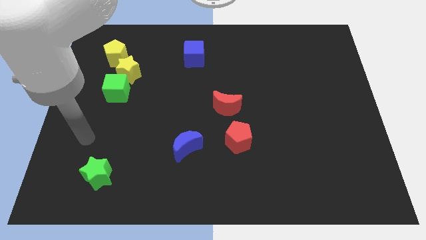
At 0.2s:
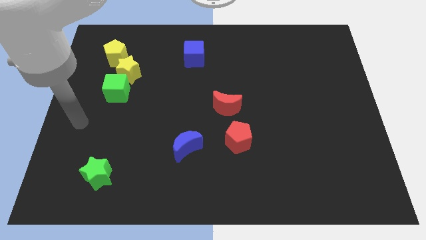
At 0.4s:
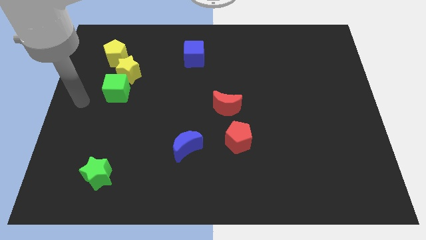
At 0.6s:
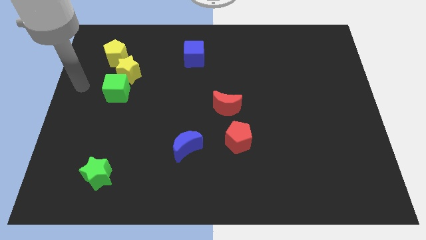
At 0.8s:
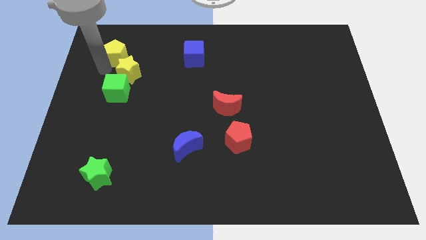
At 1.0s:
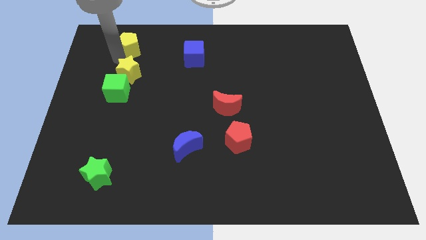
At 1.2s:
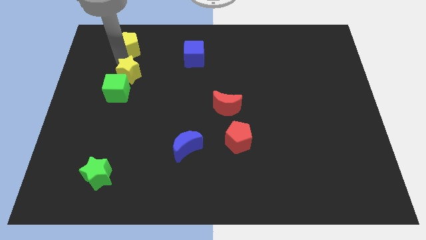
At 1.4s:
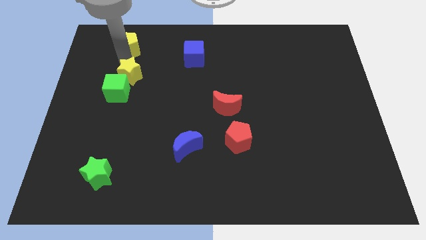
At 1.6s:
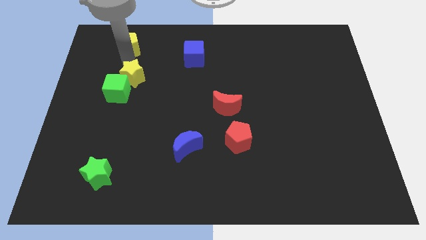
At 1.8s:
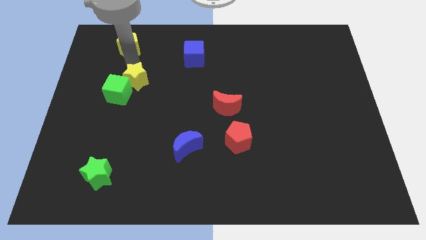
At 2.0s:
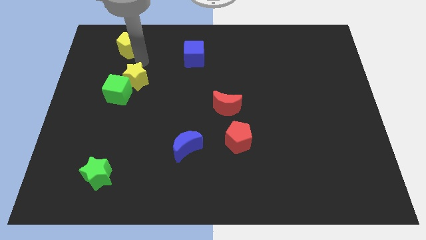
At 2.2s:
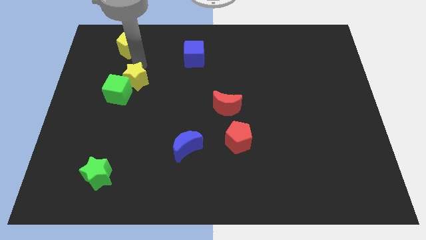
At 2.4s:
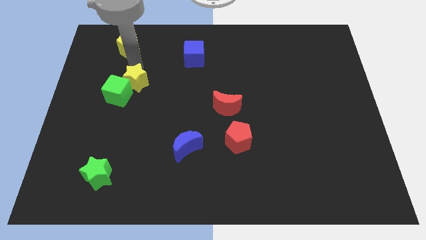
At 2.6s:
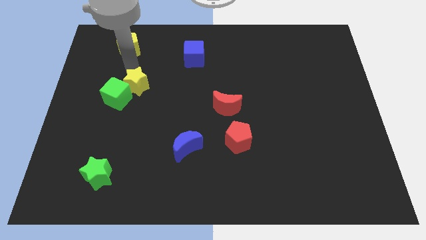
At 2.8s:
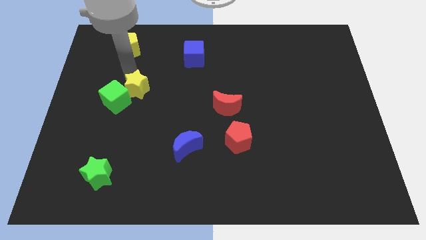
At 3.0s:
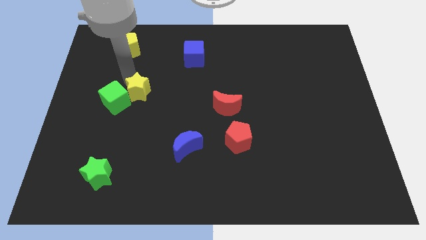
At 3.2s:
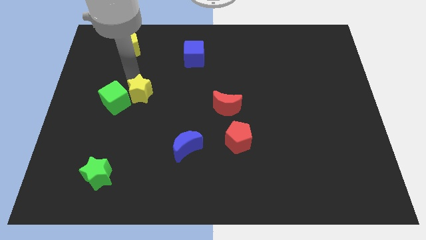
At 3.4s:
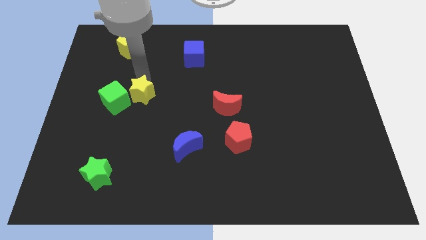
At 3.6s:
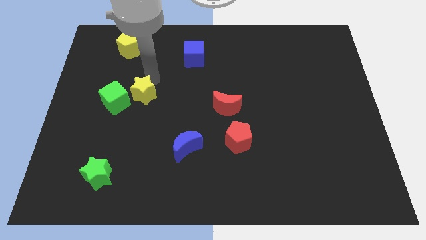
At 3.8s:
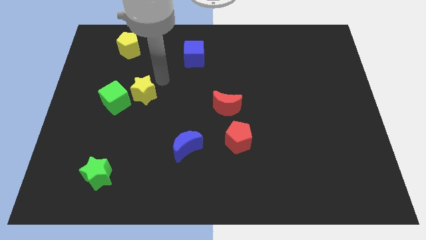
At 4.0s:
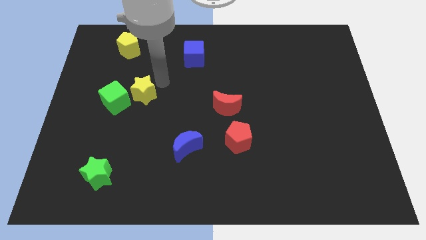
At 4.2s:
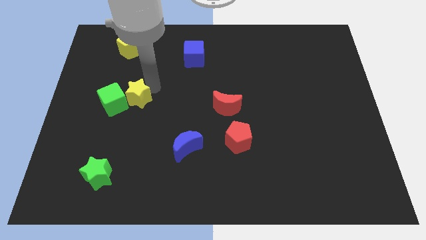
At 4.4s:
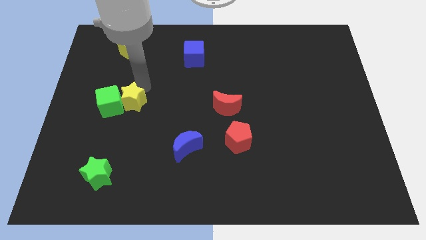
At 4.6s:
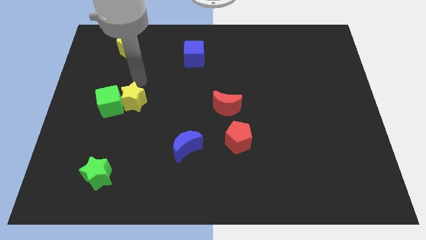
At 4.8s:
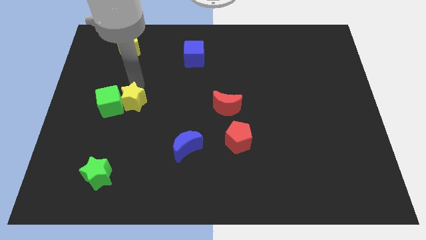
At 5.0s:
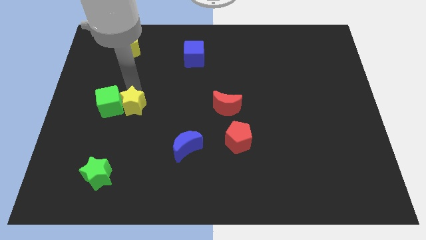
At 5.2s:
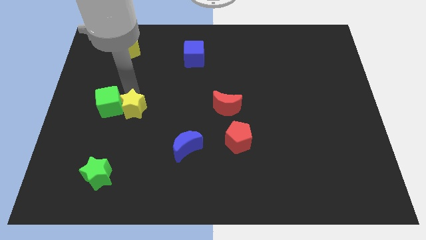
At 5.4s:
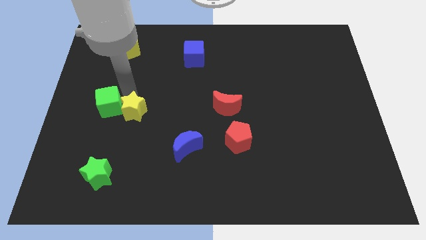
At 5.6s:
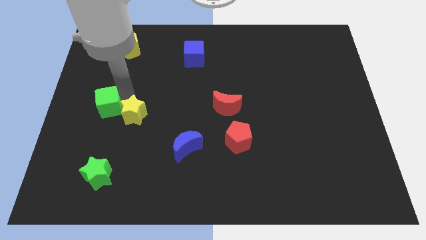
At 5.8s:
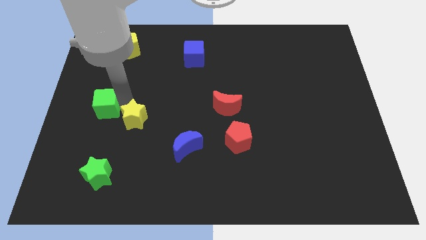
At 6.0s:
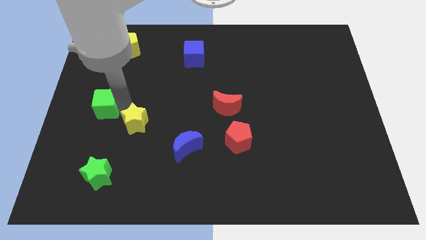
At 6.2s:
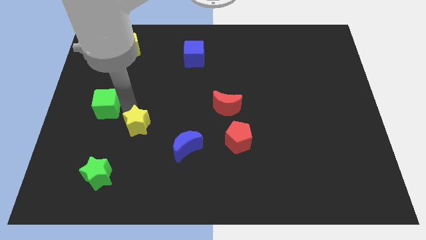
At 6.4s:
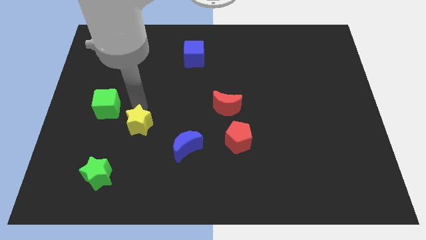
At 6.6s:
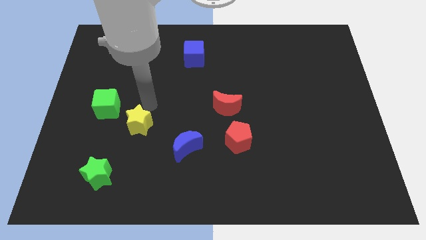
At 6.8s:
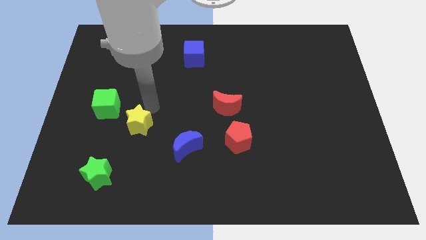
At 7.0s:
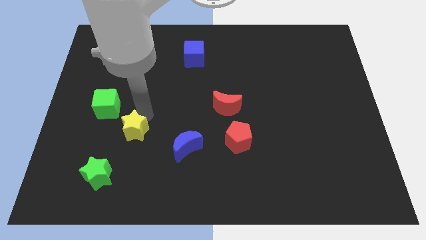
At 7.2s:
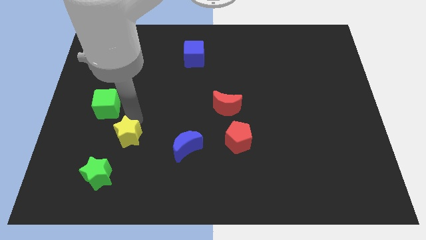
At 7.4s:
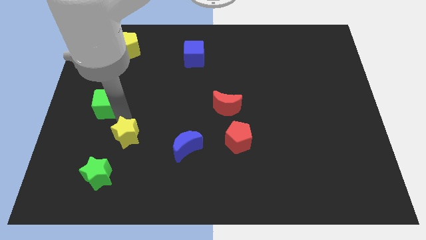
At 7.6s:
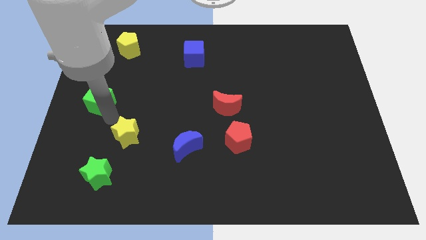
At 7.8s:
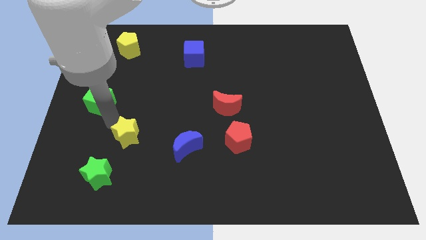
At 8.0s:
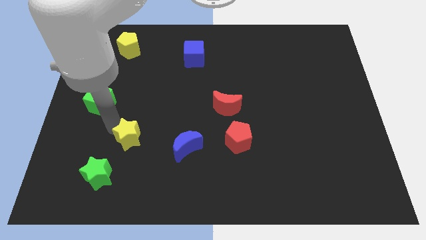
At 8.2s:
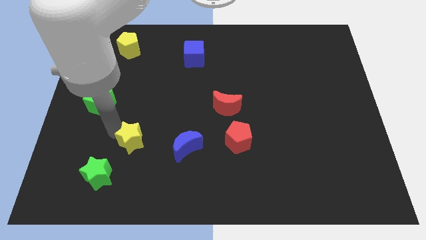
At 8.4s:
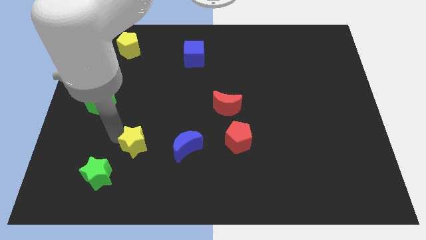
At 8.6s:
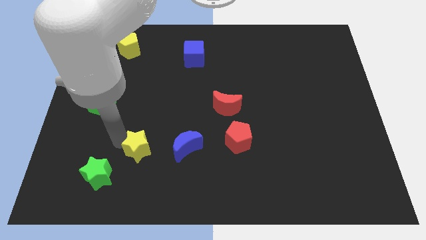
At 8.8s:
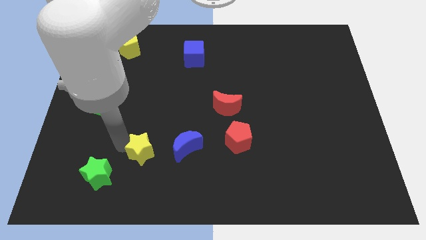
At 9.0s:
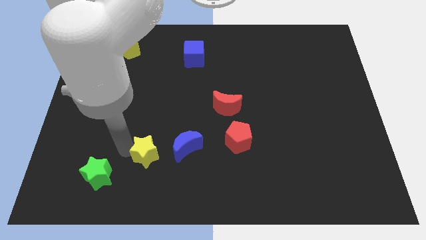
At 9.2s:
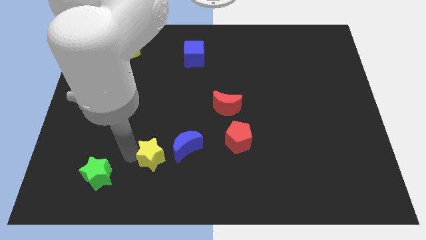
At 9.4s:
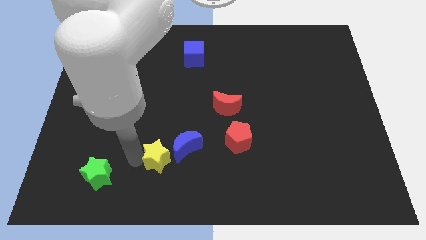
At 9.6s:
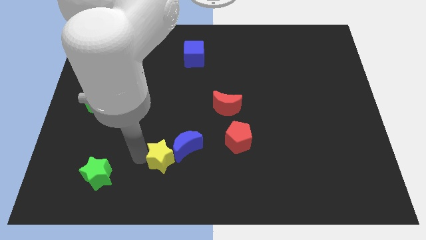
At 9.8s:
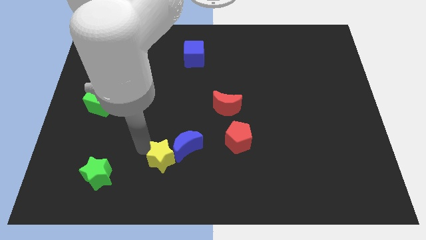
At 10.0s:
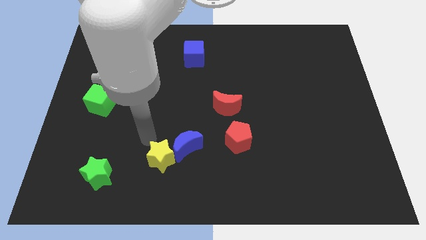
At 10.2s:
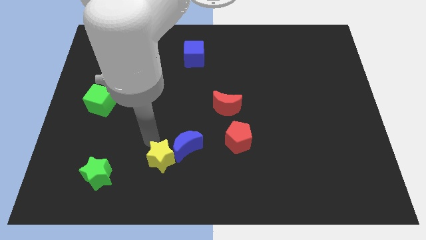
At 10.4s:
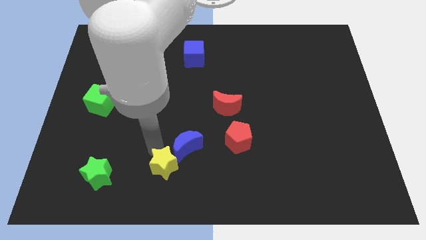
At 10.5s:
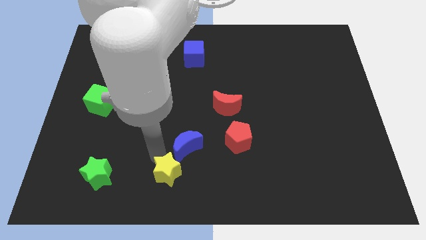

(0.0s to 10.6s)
put the yellow star to the bottom side
